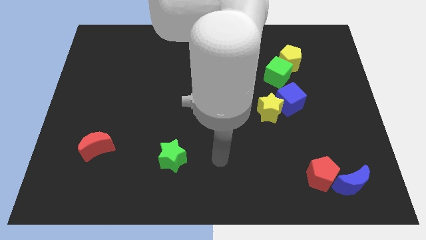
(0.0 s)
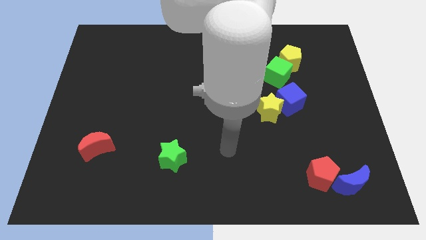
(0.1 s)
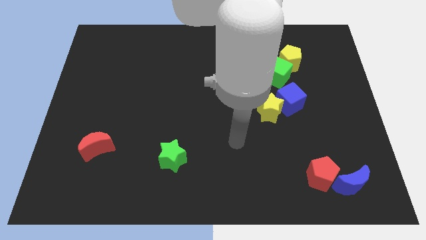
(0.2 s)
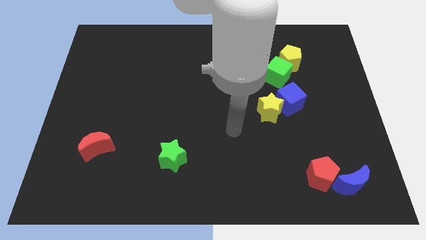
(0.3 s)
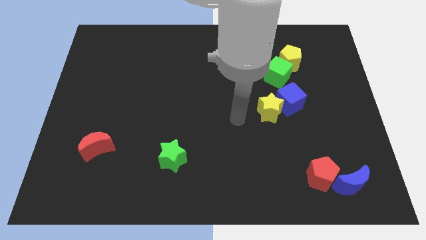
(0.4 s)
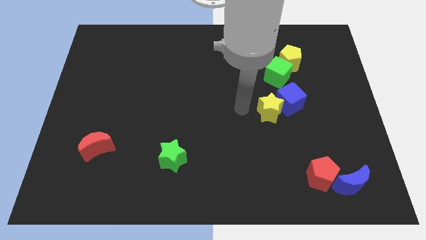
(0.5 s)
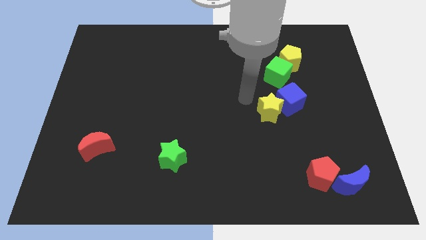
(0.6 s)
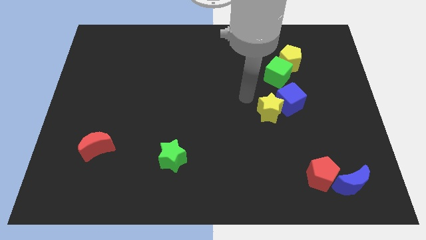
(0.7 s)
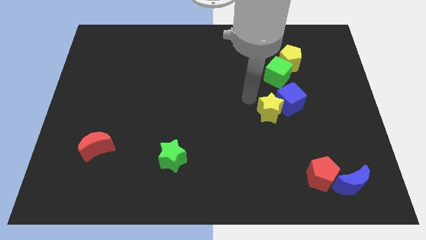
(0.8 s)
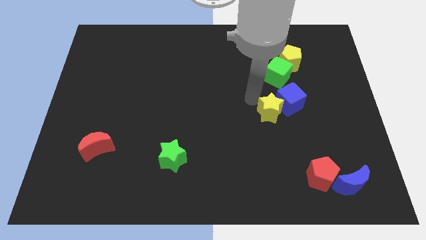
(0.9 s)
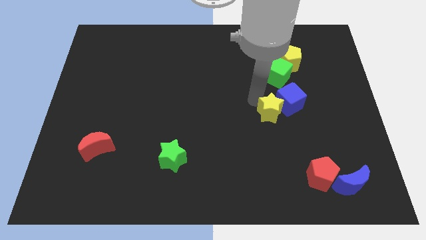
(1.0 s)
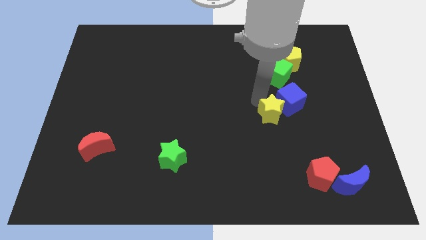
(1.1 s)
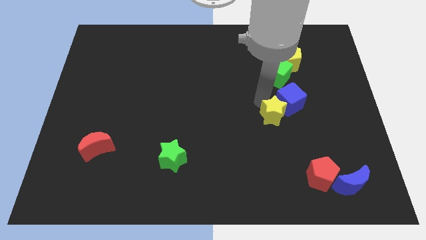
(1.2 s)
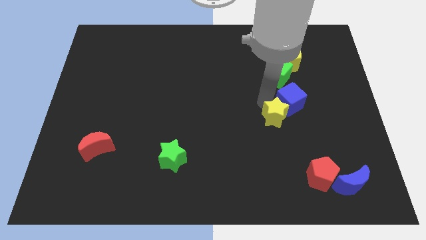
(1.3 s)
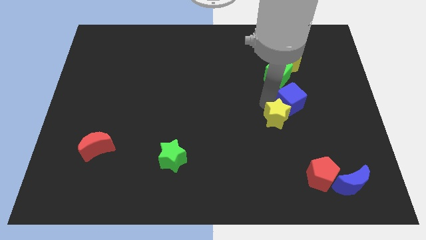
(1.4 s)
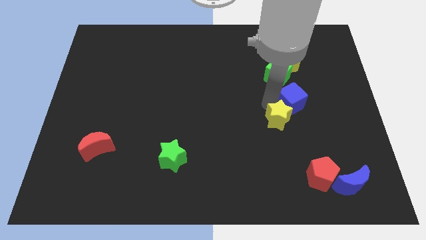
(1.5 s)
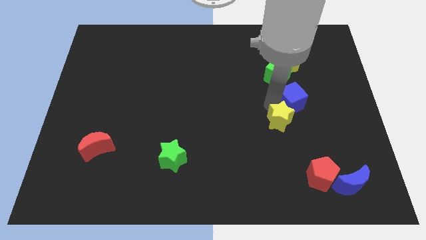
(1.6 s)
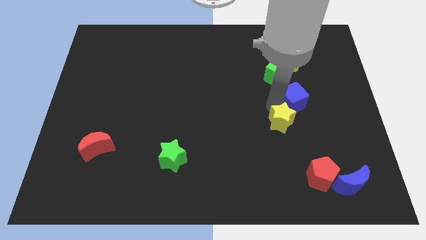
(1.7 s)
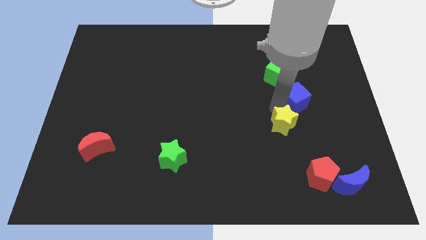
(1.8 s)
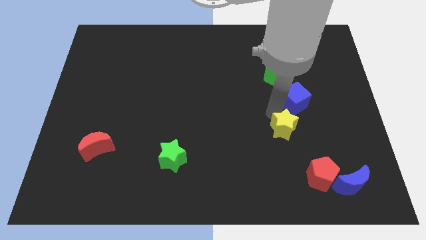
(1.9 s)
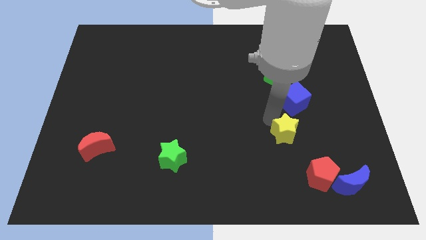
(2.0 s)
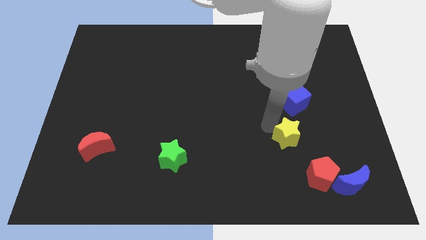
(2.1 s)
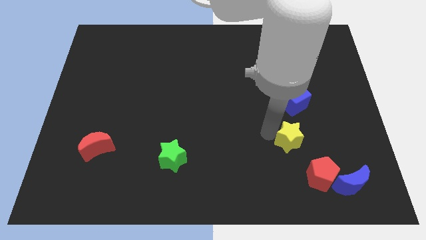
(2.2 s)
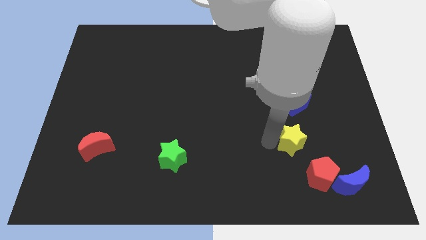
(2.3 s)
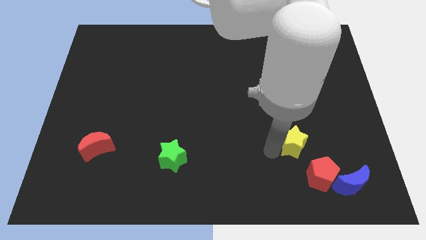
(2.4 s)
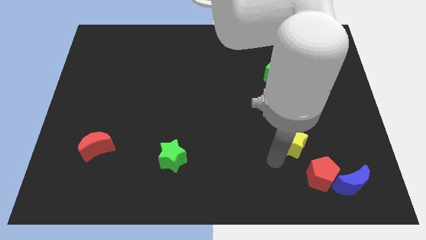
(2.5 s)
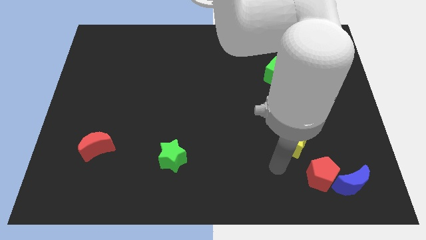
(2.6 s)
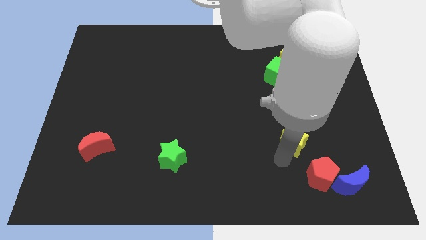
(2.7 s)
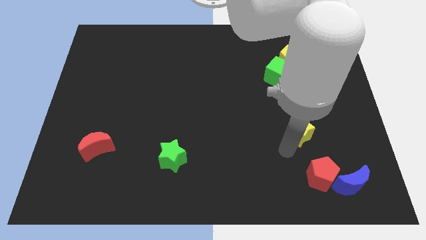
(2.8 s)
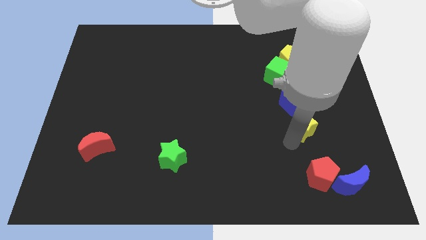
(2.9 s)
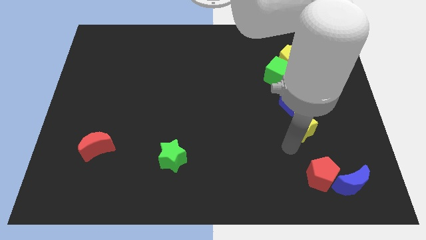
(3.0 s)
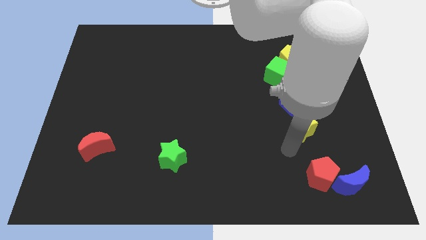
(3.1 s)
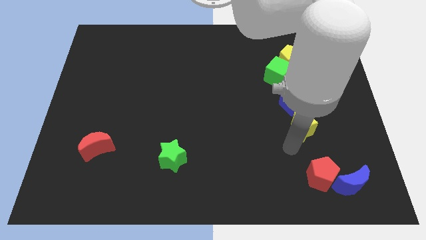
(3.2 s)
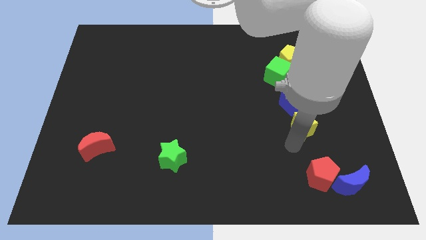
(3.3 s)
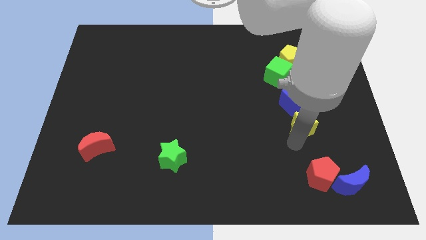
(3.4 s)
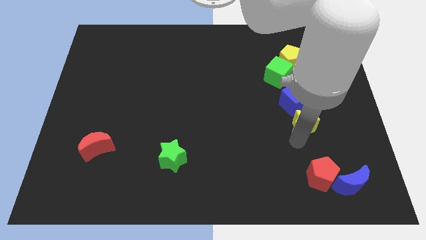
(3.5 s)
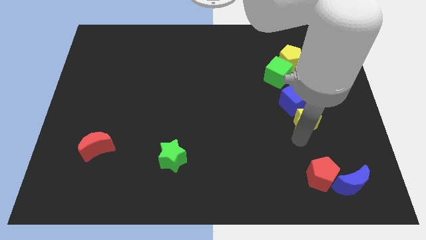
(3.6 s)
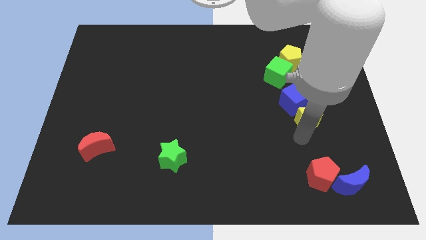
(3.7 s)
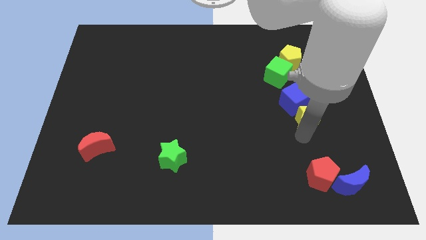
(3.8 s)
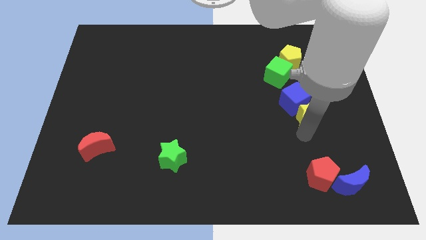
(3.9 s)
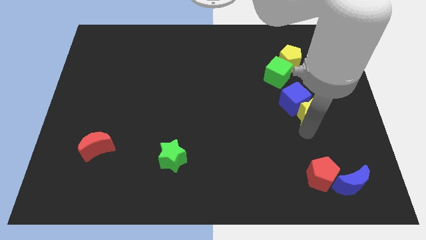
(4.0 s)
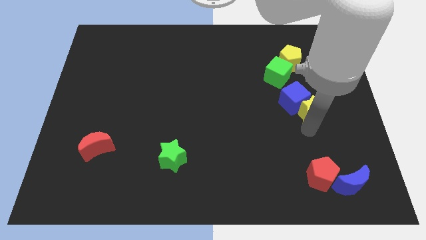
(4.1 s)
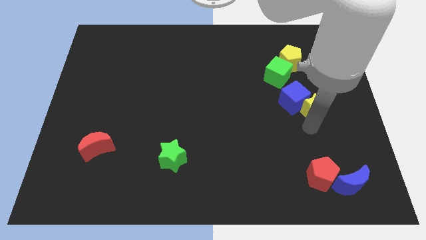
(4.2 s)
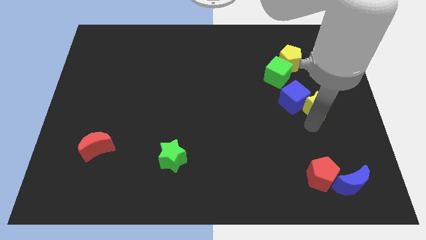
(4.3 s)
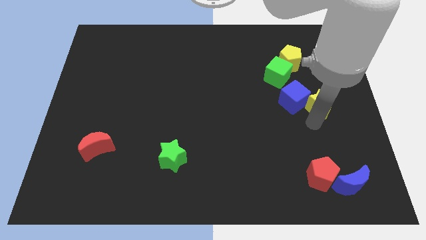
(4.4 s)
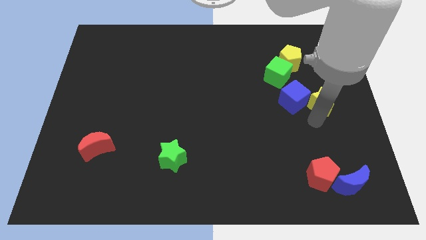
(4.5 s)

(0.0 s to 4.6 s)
move the yellow star diagonally down and to the right of the green cube

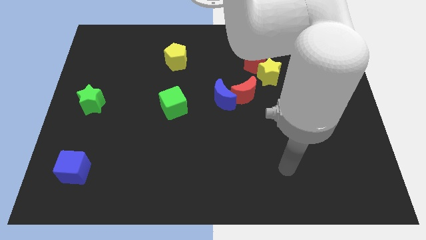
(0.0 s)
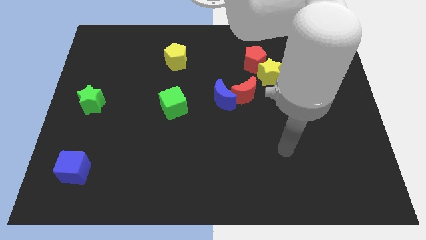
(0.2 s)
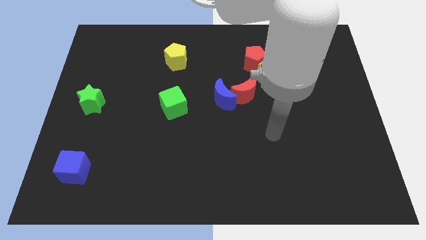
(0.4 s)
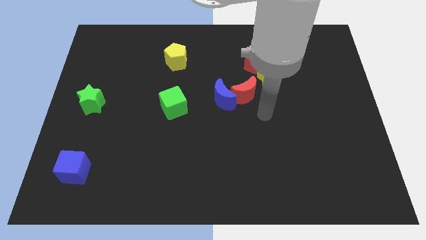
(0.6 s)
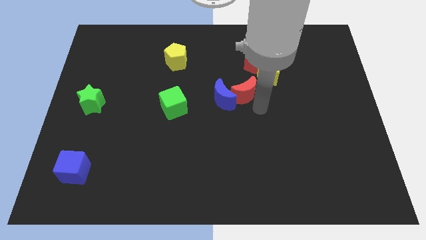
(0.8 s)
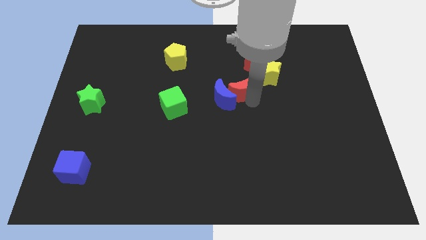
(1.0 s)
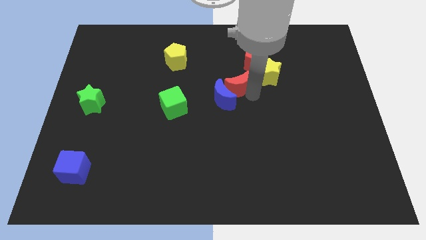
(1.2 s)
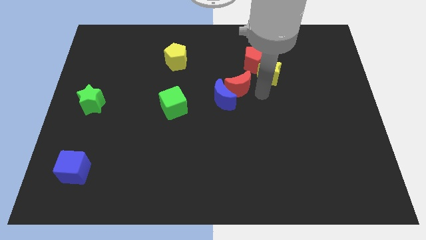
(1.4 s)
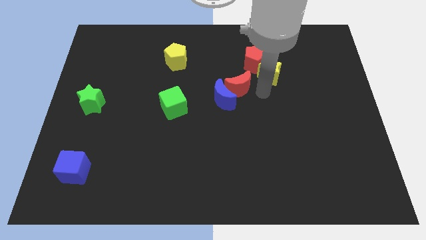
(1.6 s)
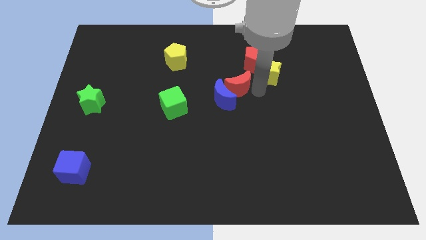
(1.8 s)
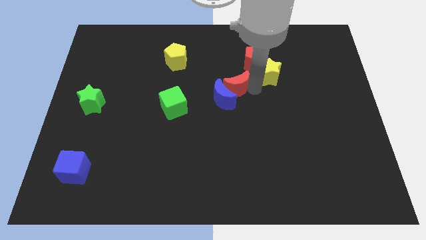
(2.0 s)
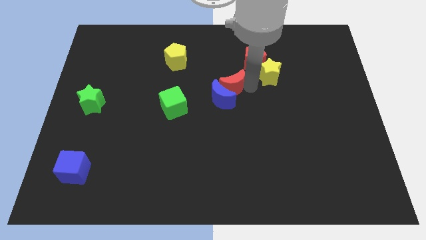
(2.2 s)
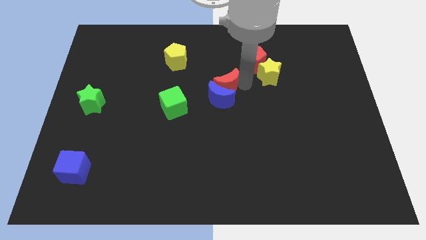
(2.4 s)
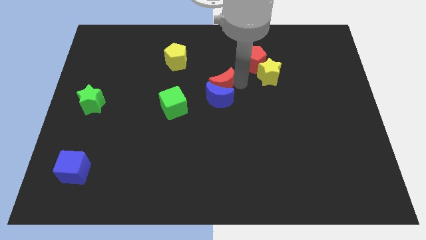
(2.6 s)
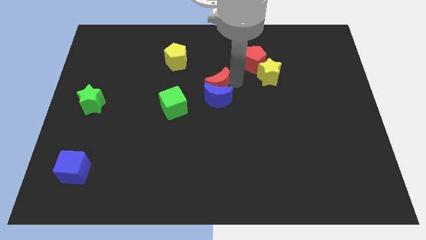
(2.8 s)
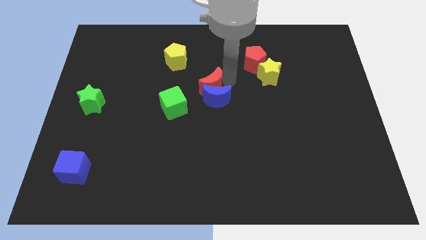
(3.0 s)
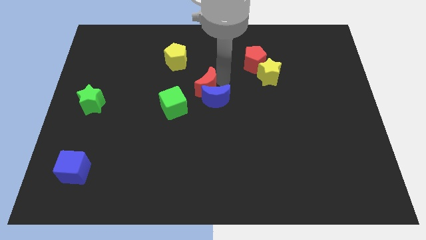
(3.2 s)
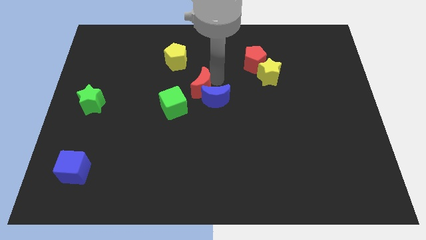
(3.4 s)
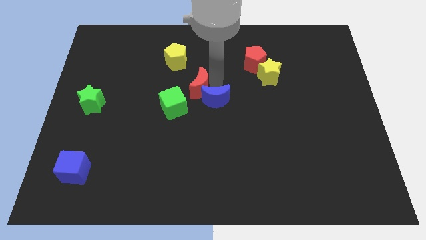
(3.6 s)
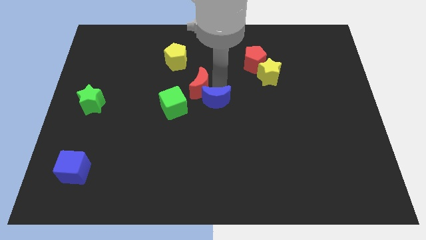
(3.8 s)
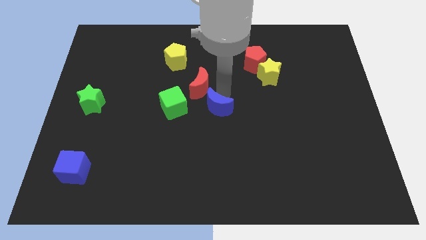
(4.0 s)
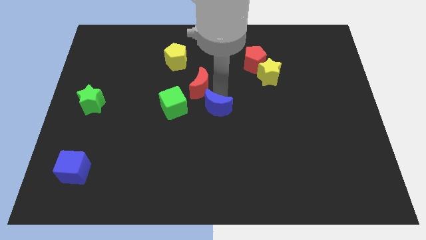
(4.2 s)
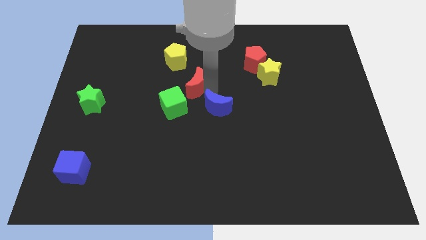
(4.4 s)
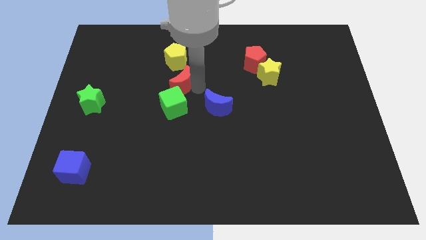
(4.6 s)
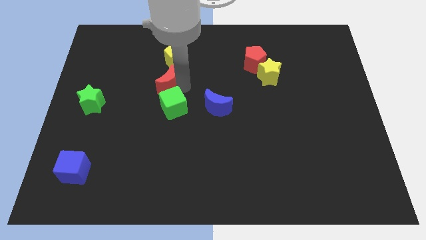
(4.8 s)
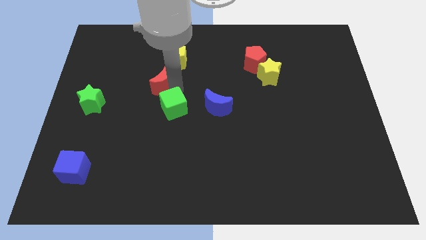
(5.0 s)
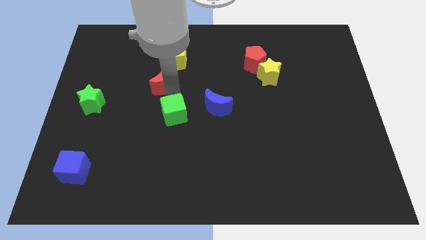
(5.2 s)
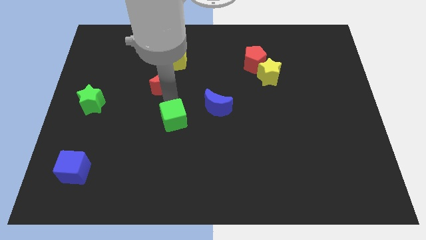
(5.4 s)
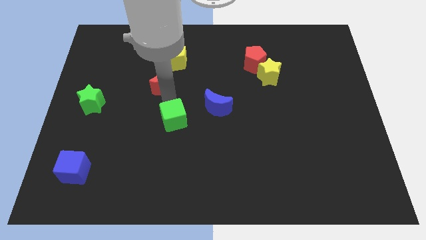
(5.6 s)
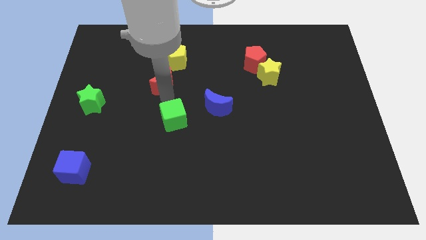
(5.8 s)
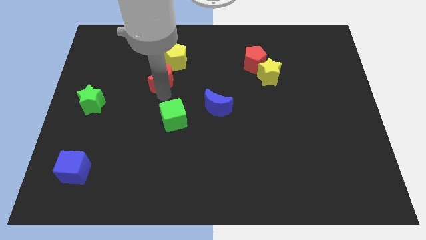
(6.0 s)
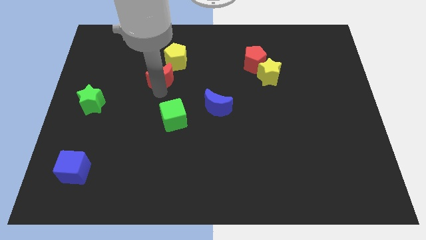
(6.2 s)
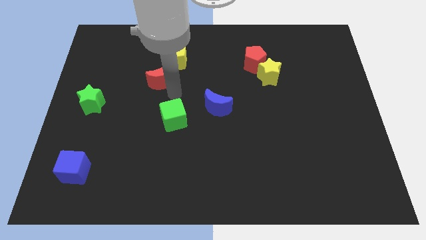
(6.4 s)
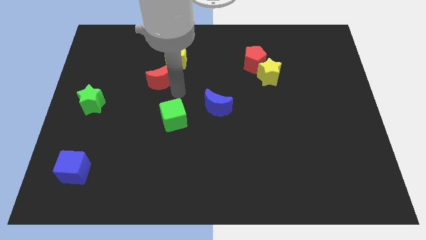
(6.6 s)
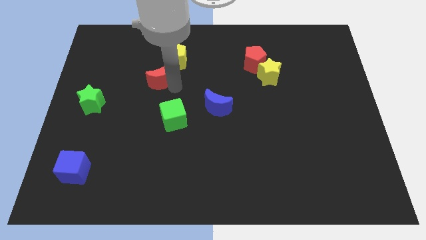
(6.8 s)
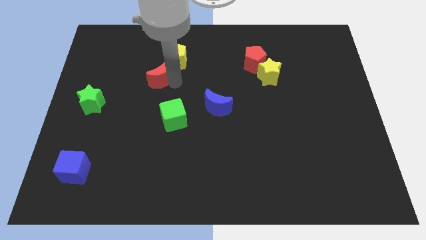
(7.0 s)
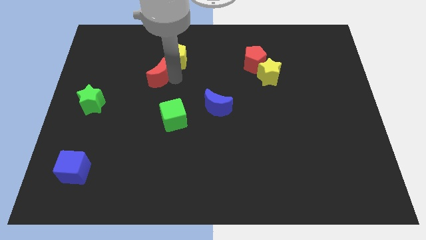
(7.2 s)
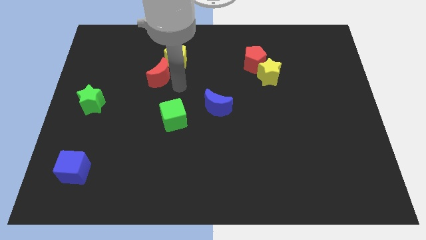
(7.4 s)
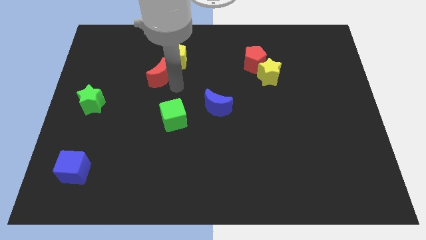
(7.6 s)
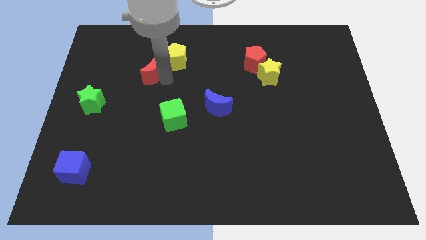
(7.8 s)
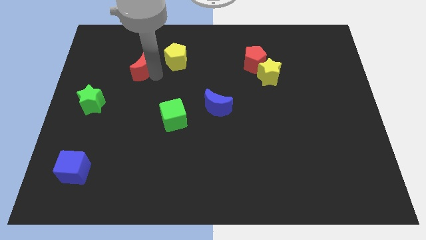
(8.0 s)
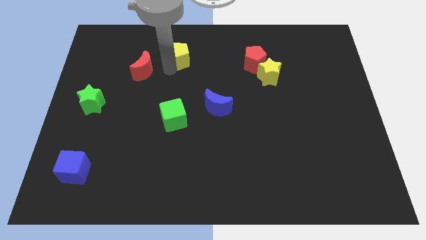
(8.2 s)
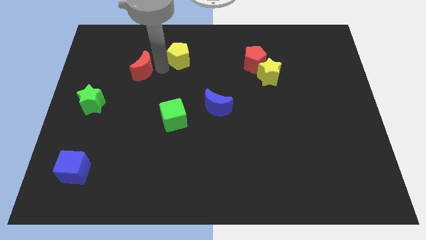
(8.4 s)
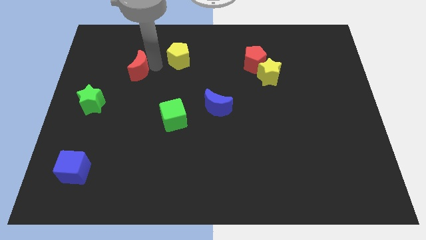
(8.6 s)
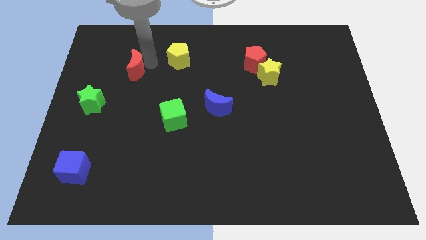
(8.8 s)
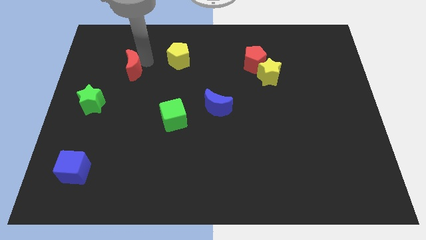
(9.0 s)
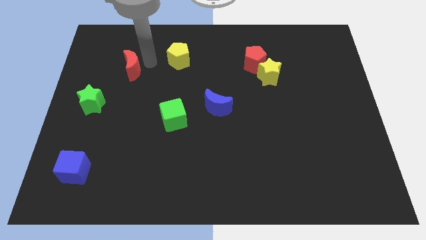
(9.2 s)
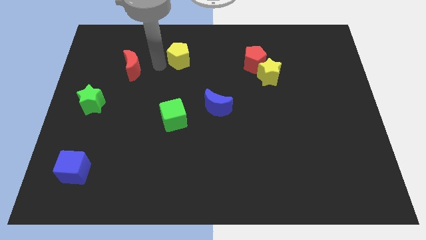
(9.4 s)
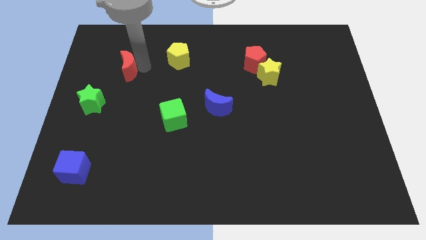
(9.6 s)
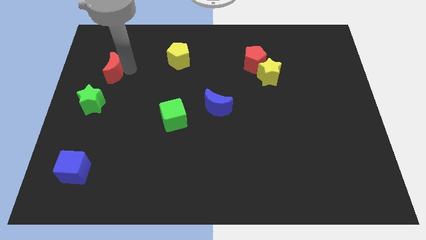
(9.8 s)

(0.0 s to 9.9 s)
put the red moon to the top side of the green star
